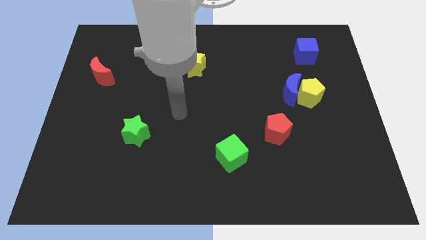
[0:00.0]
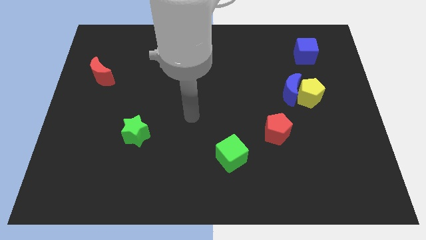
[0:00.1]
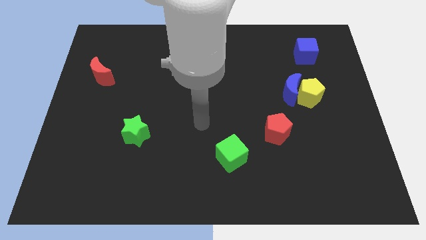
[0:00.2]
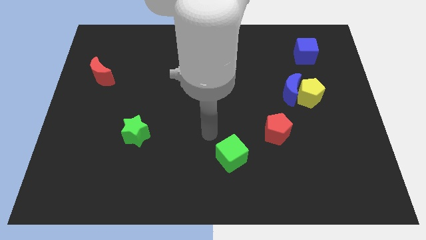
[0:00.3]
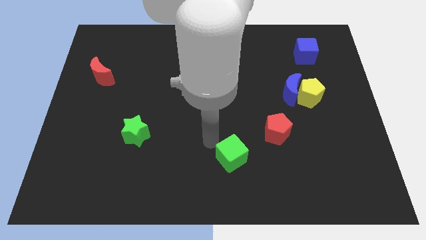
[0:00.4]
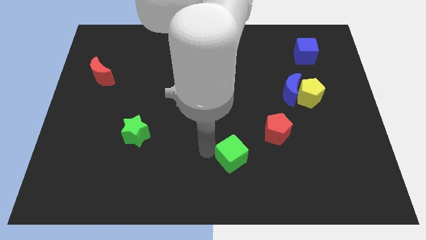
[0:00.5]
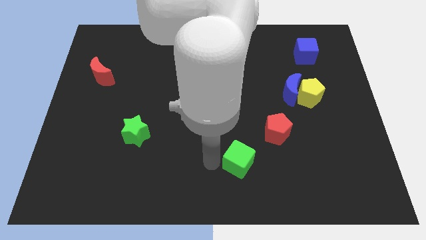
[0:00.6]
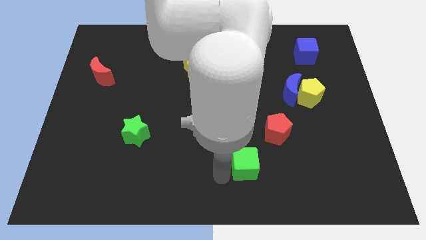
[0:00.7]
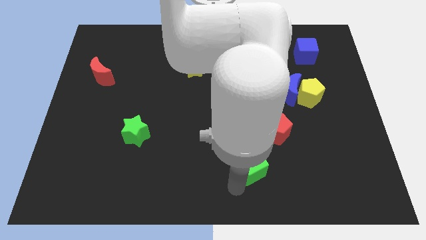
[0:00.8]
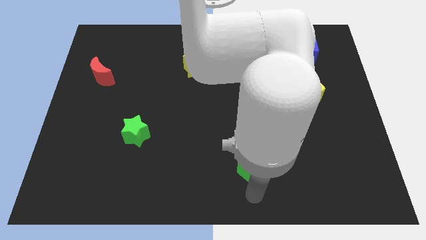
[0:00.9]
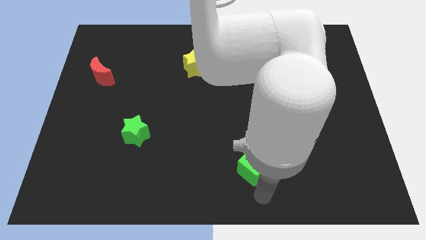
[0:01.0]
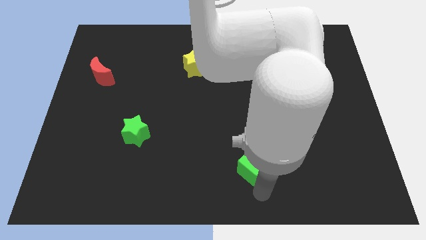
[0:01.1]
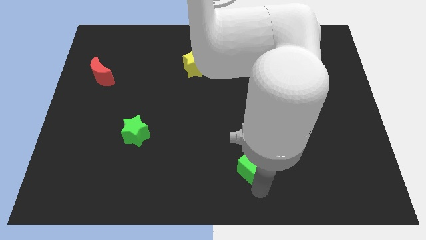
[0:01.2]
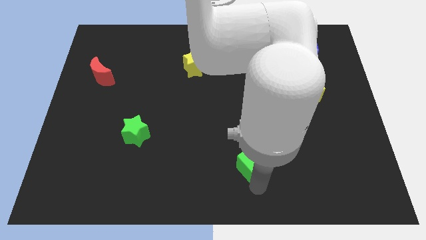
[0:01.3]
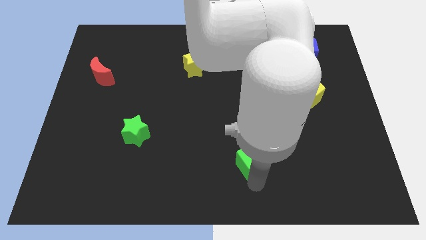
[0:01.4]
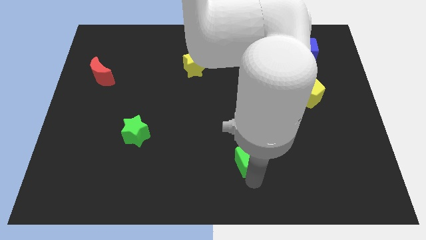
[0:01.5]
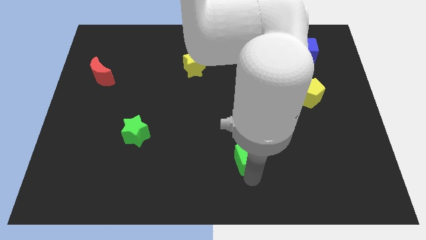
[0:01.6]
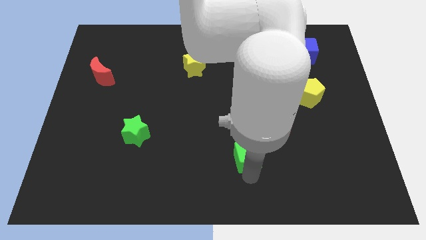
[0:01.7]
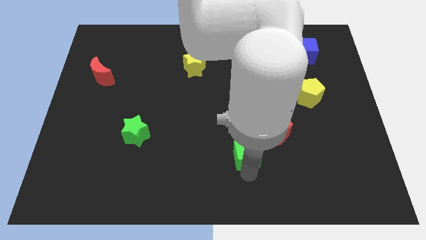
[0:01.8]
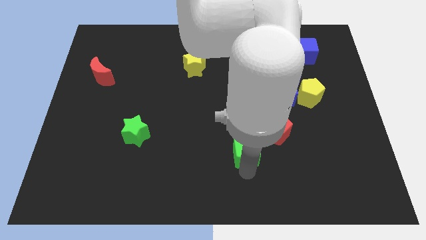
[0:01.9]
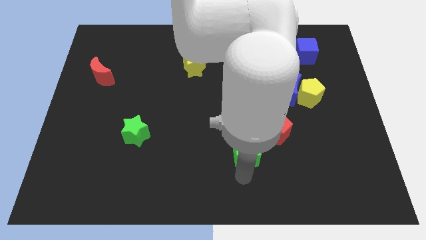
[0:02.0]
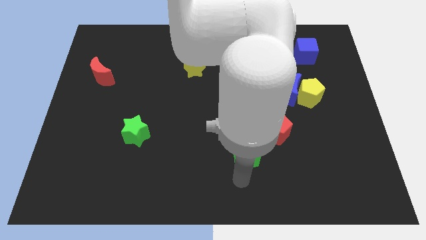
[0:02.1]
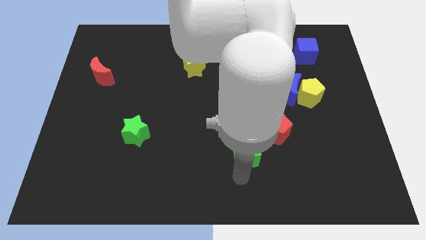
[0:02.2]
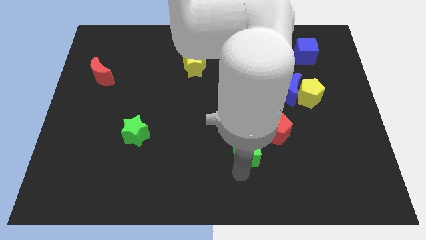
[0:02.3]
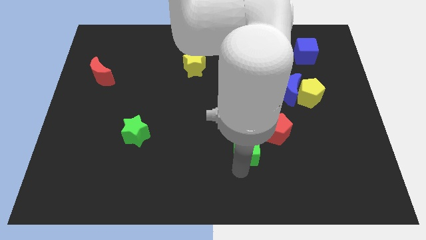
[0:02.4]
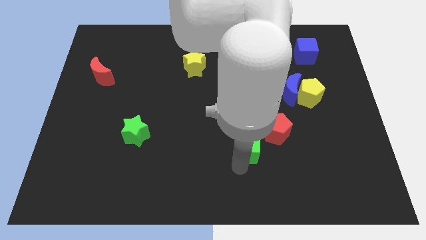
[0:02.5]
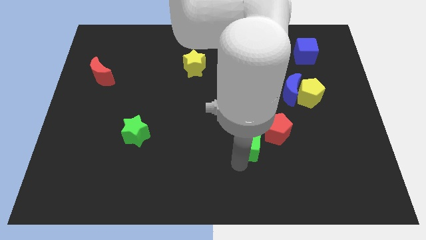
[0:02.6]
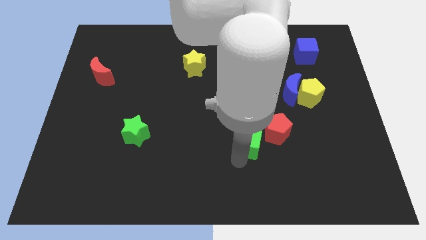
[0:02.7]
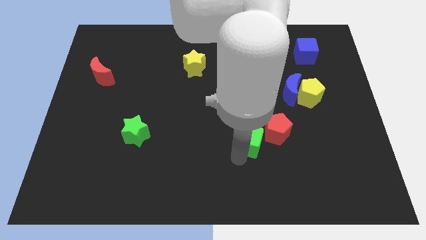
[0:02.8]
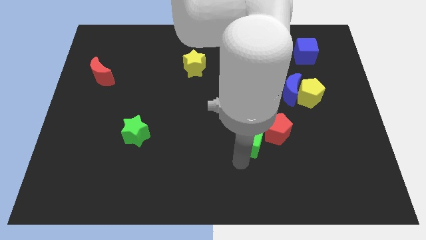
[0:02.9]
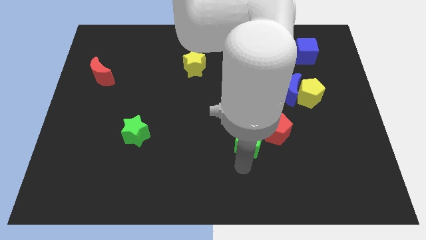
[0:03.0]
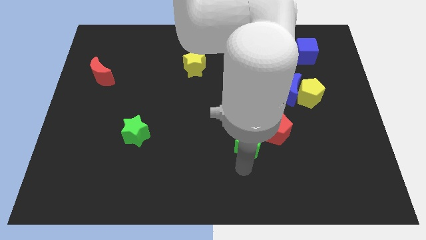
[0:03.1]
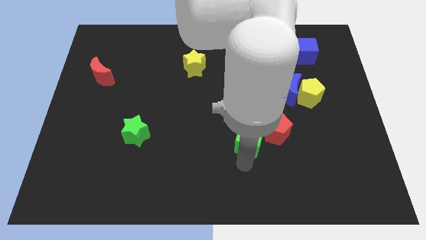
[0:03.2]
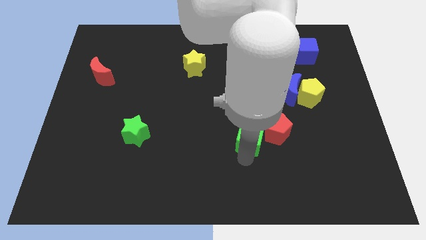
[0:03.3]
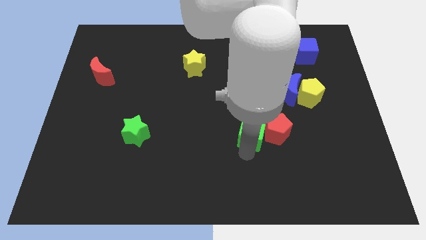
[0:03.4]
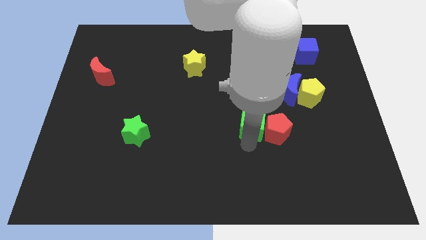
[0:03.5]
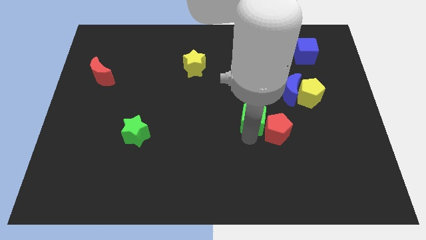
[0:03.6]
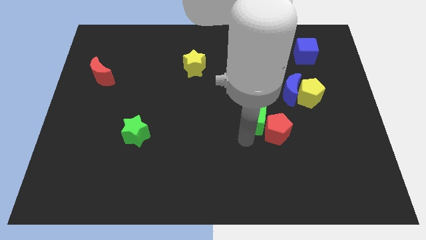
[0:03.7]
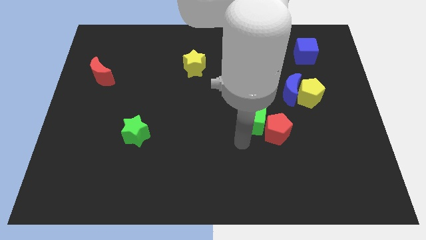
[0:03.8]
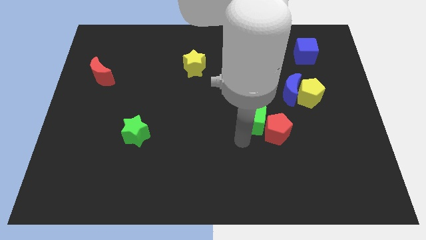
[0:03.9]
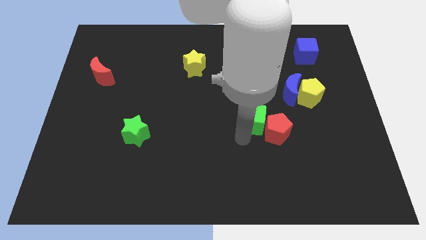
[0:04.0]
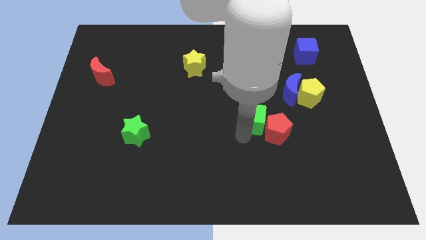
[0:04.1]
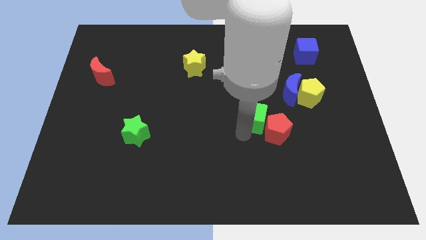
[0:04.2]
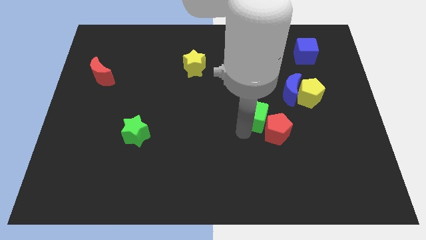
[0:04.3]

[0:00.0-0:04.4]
put the green cube to the top of the red pentagon

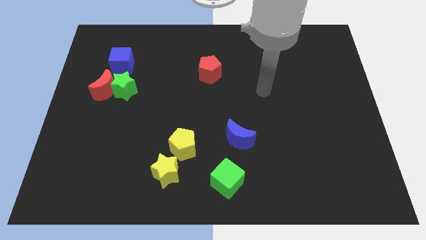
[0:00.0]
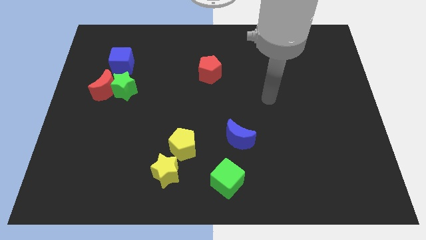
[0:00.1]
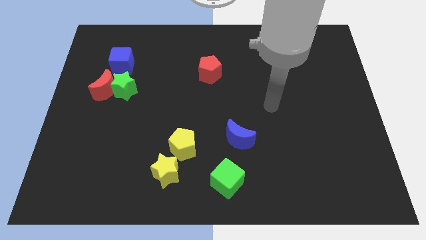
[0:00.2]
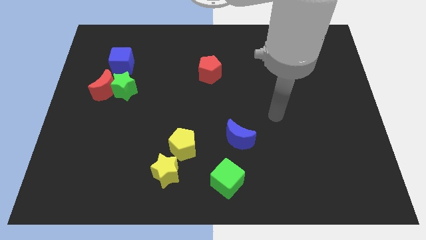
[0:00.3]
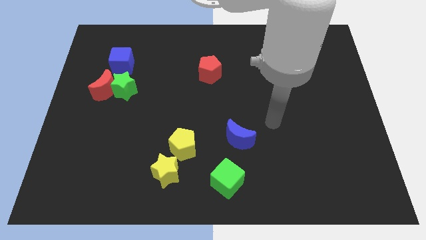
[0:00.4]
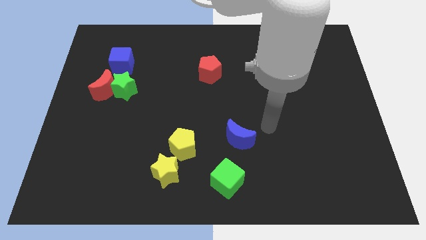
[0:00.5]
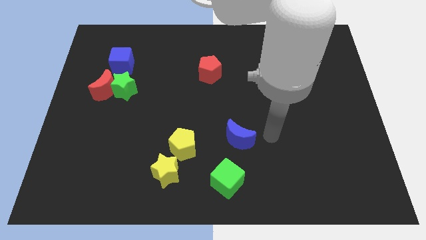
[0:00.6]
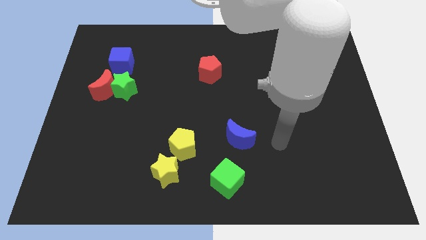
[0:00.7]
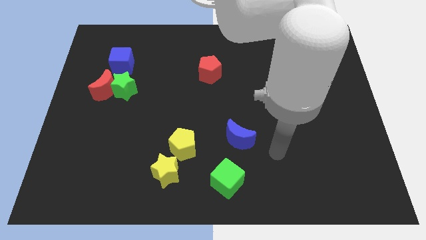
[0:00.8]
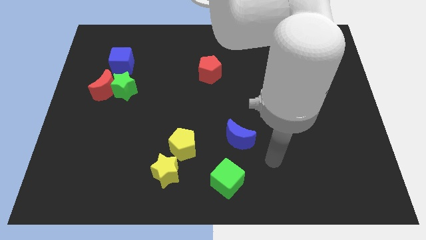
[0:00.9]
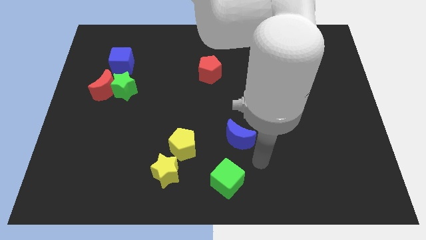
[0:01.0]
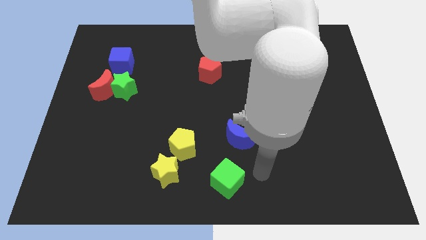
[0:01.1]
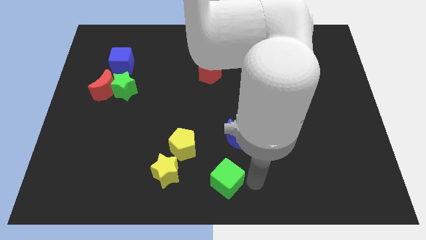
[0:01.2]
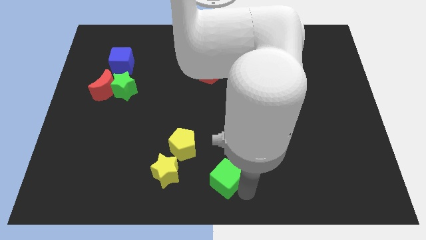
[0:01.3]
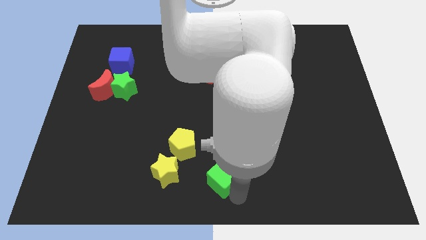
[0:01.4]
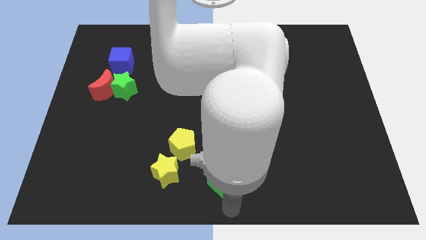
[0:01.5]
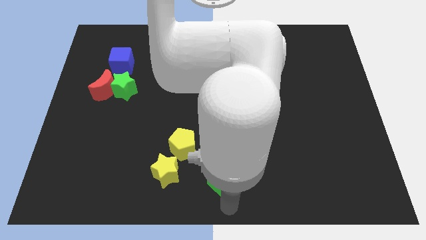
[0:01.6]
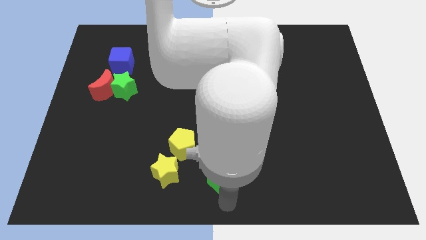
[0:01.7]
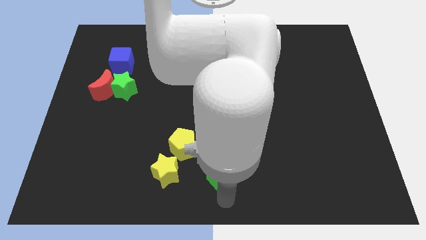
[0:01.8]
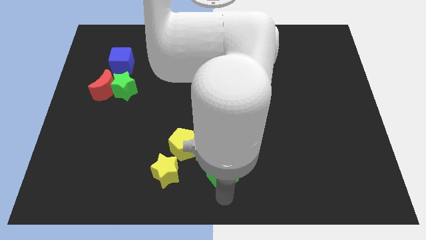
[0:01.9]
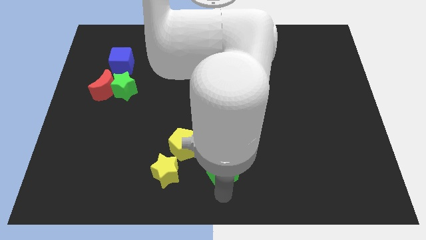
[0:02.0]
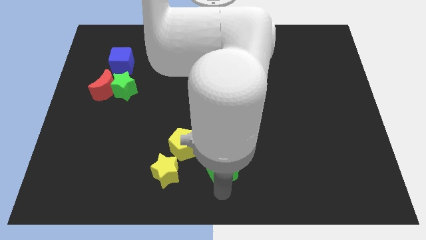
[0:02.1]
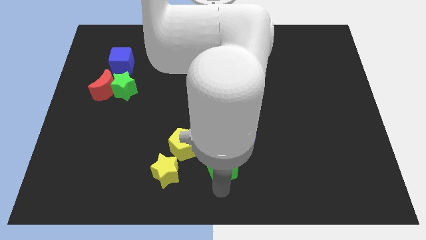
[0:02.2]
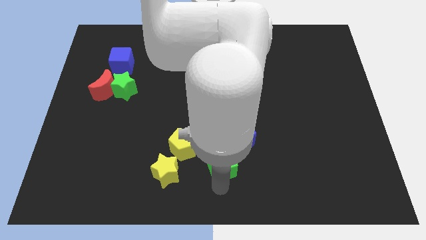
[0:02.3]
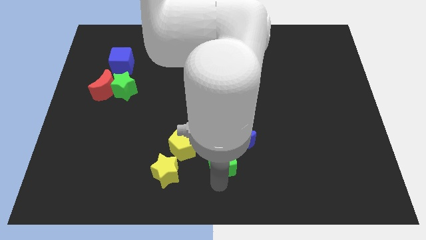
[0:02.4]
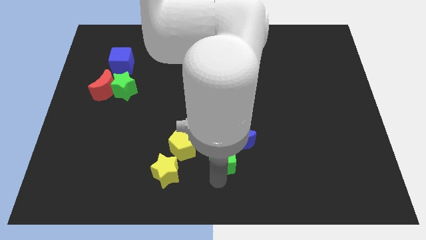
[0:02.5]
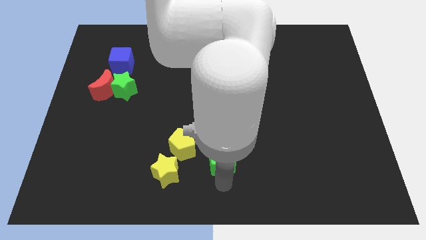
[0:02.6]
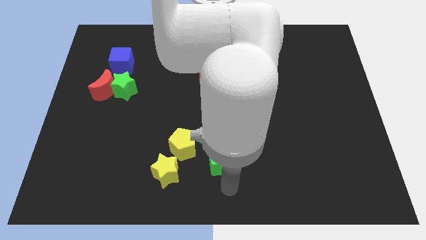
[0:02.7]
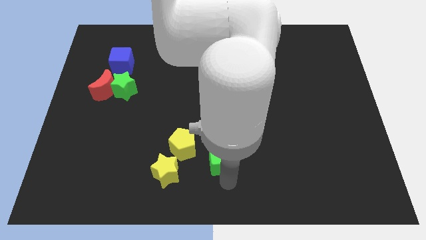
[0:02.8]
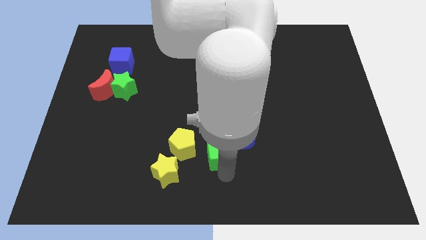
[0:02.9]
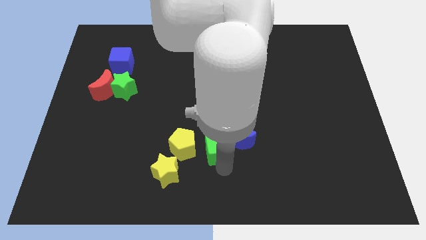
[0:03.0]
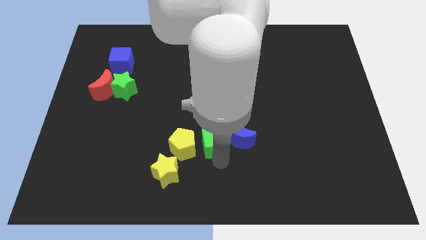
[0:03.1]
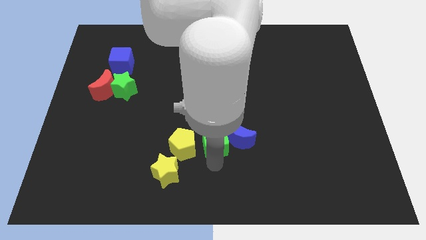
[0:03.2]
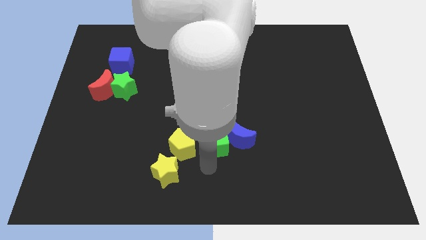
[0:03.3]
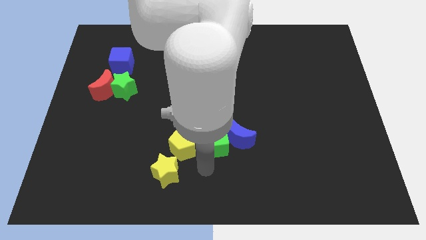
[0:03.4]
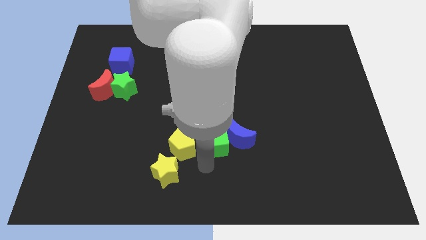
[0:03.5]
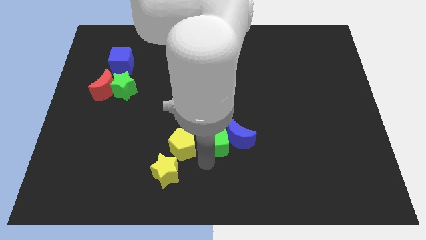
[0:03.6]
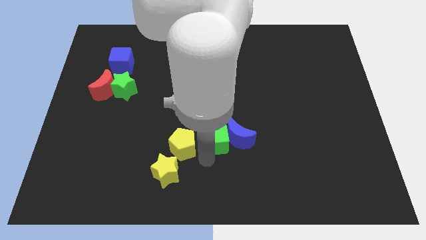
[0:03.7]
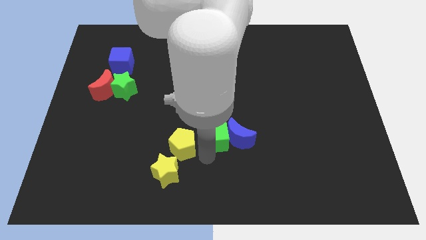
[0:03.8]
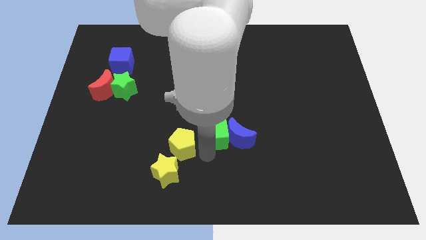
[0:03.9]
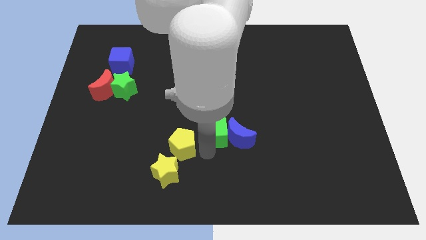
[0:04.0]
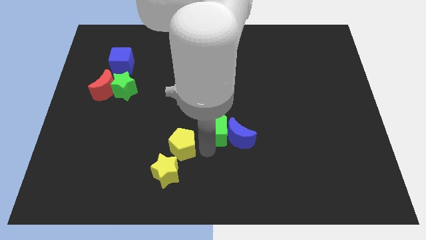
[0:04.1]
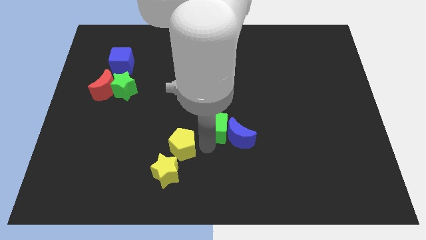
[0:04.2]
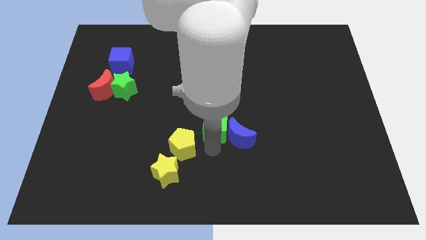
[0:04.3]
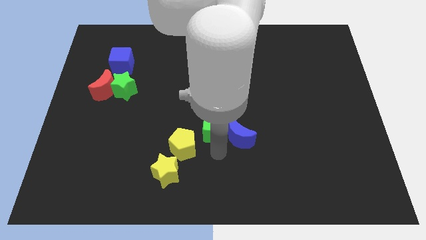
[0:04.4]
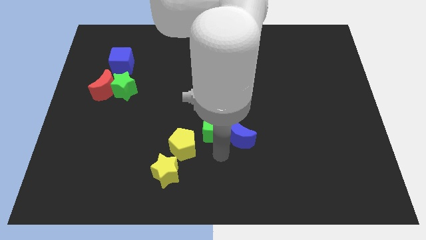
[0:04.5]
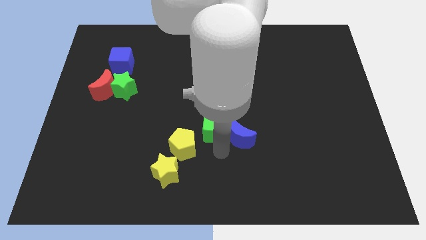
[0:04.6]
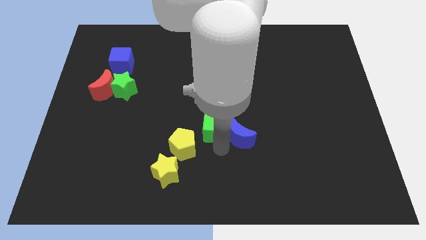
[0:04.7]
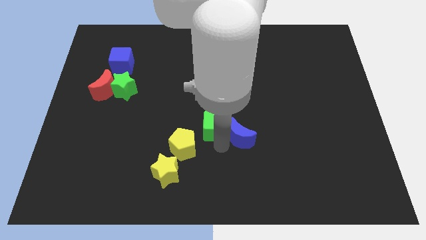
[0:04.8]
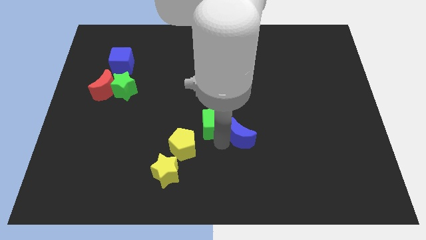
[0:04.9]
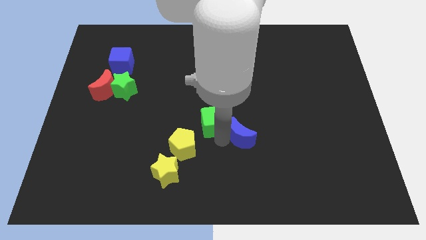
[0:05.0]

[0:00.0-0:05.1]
push the green cube to the bottom of the red pentagon
